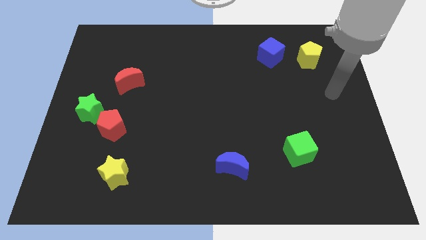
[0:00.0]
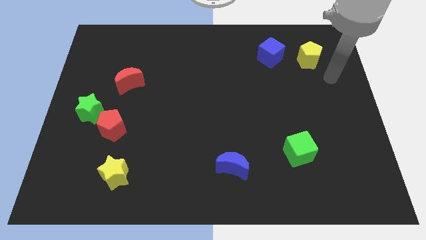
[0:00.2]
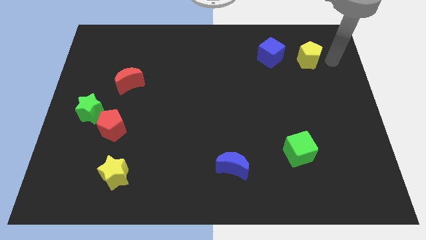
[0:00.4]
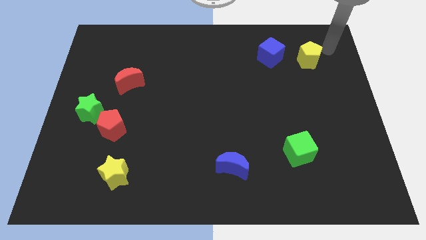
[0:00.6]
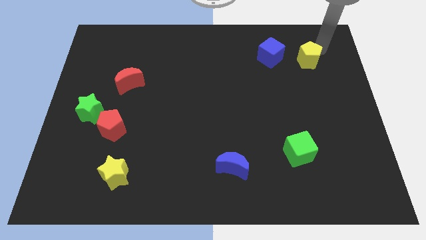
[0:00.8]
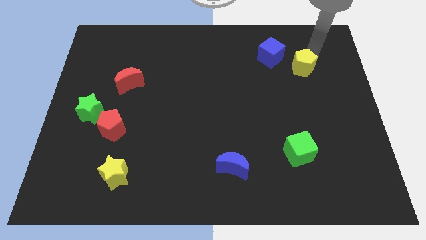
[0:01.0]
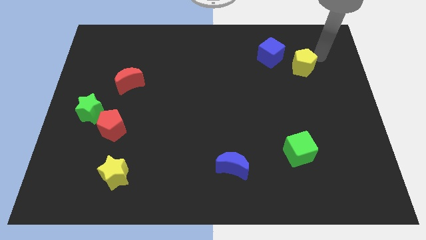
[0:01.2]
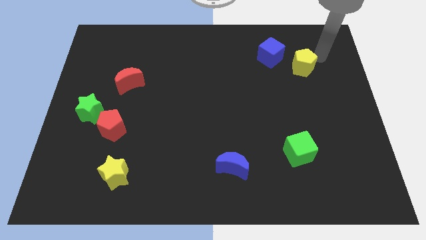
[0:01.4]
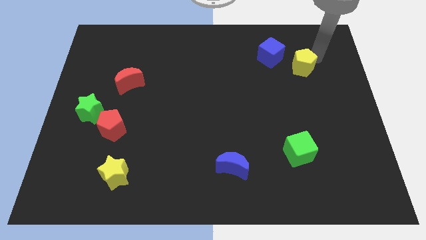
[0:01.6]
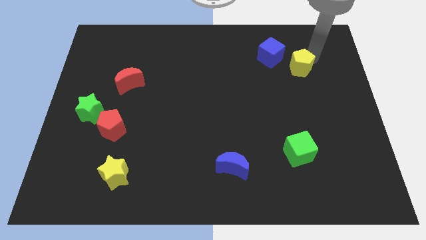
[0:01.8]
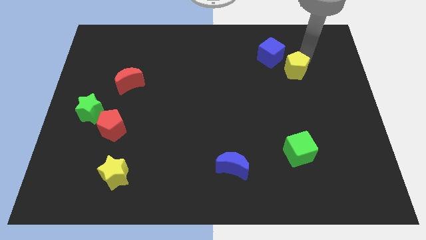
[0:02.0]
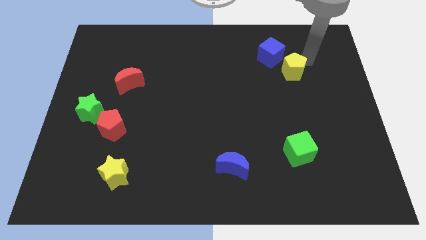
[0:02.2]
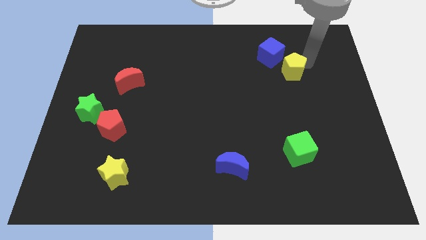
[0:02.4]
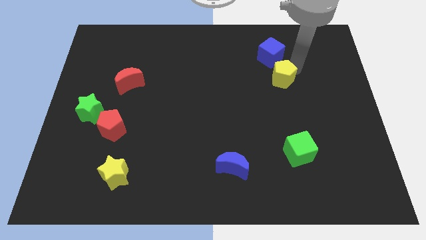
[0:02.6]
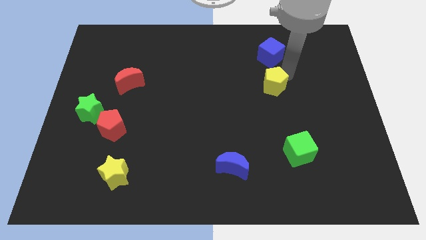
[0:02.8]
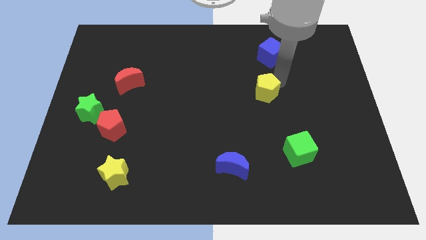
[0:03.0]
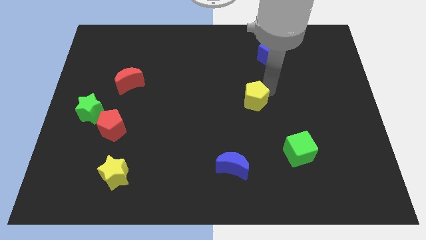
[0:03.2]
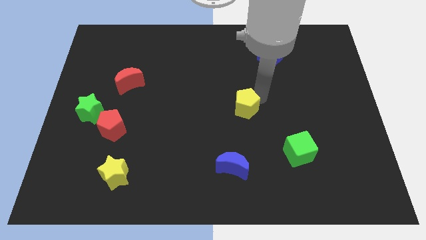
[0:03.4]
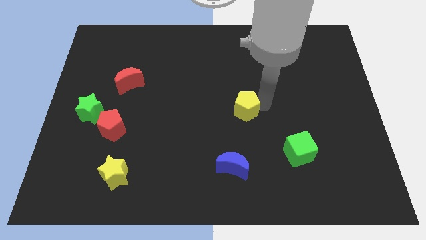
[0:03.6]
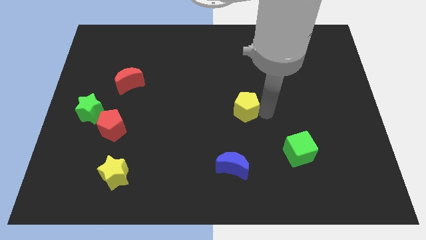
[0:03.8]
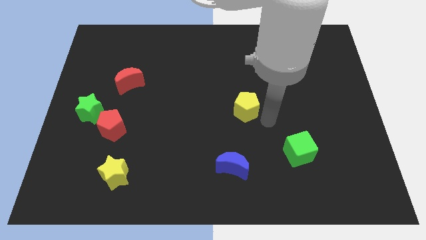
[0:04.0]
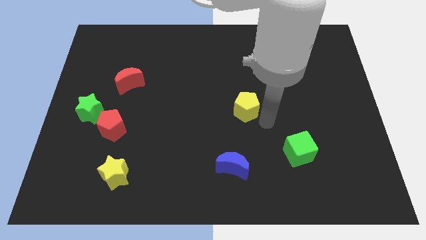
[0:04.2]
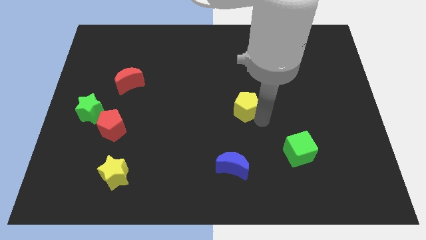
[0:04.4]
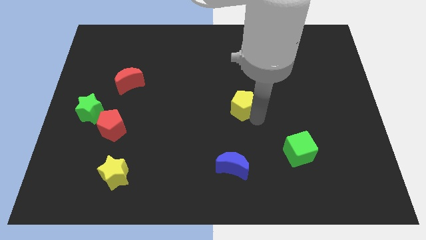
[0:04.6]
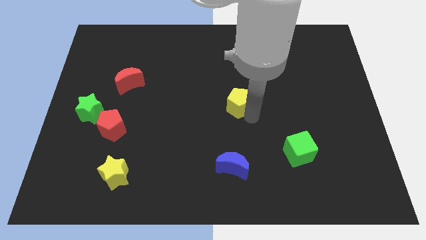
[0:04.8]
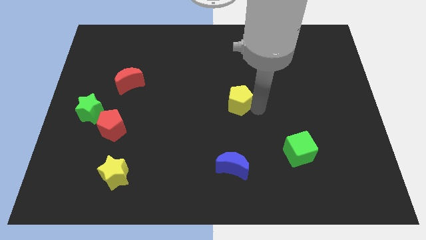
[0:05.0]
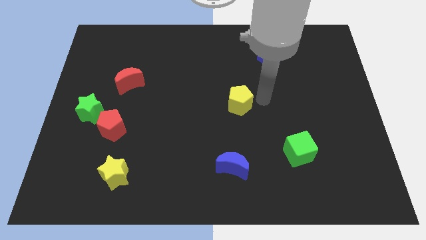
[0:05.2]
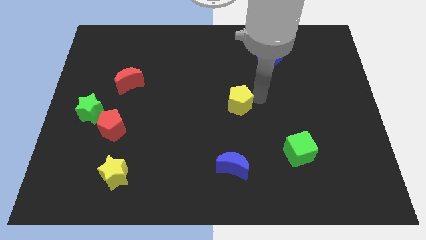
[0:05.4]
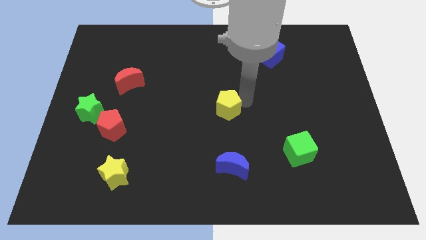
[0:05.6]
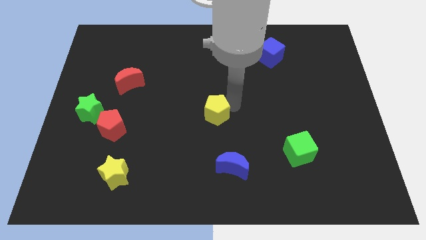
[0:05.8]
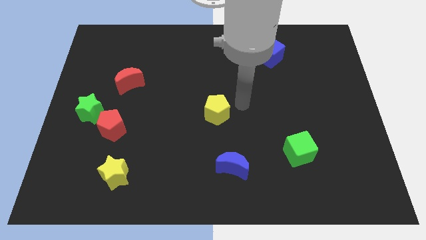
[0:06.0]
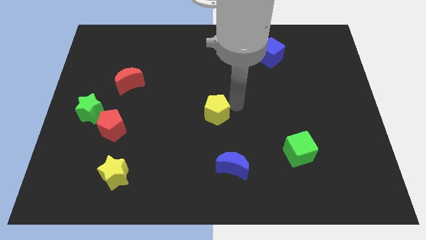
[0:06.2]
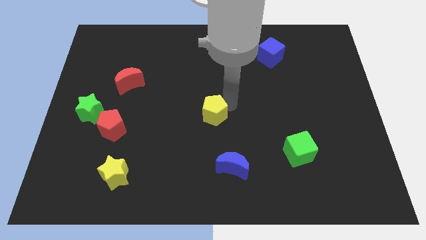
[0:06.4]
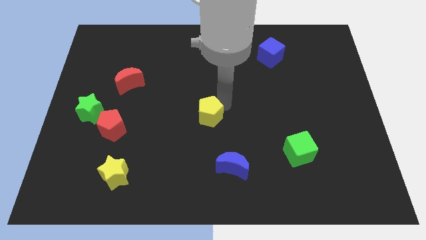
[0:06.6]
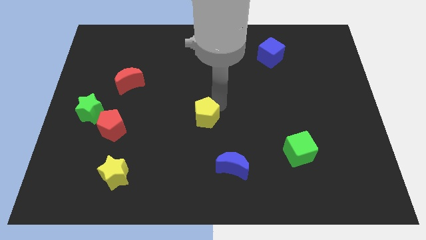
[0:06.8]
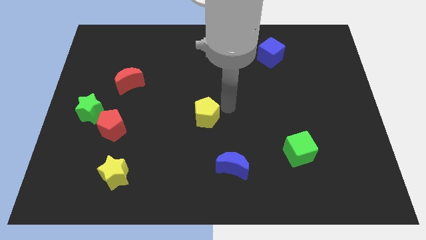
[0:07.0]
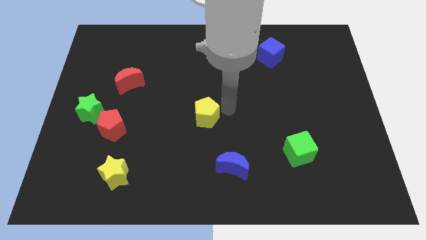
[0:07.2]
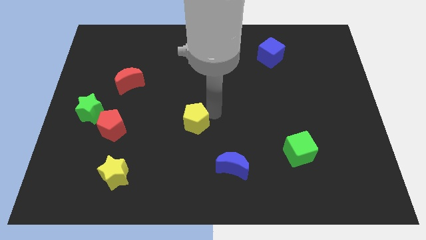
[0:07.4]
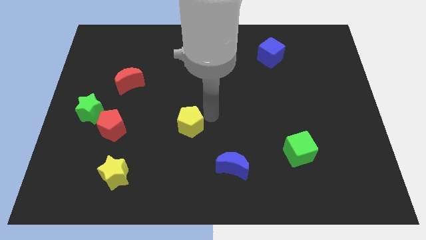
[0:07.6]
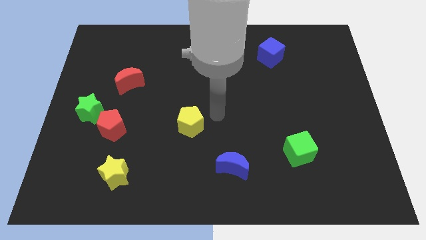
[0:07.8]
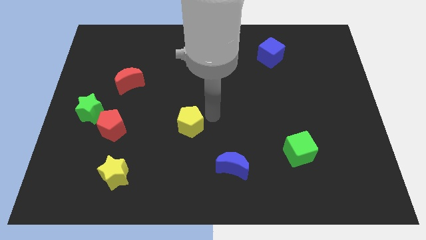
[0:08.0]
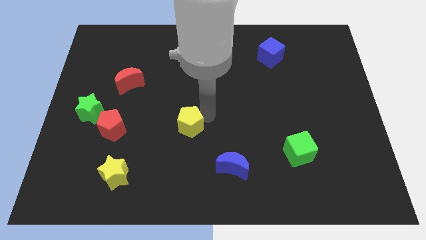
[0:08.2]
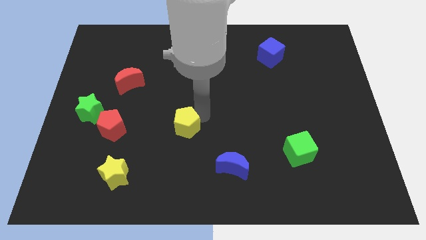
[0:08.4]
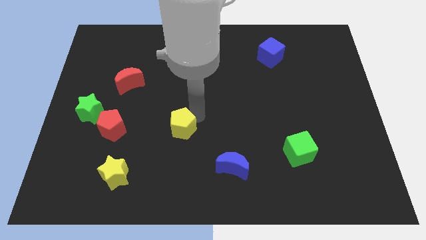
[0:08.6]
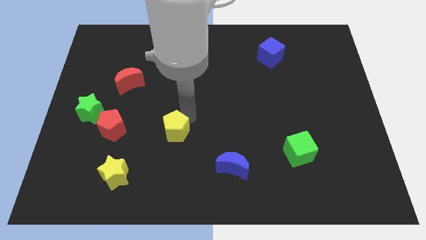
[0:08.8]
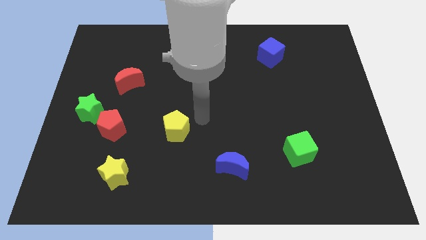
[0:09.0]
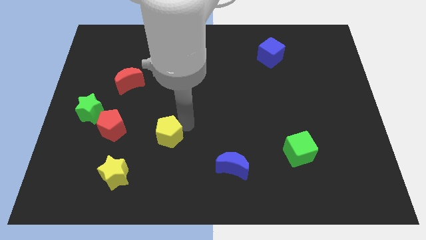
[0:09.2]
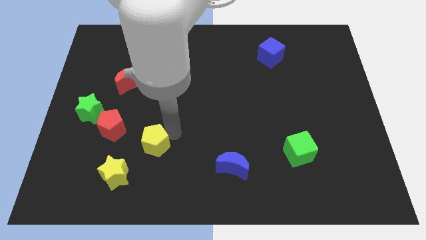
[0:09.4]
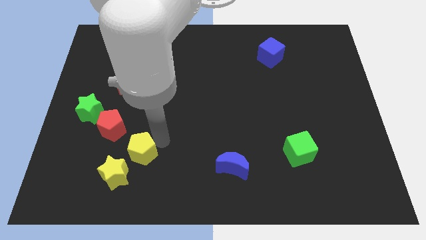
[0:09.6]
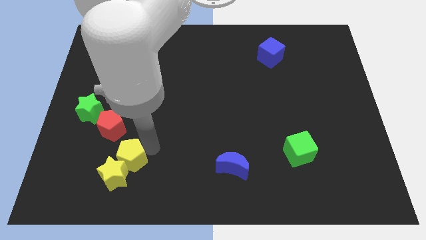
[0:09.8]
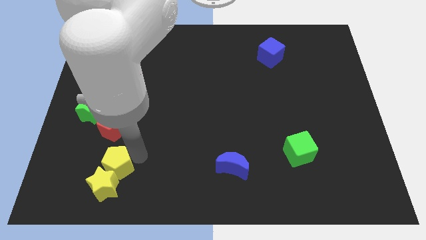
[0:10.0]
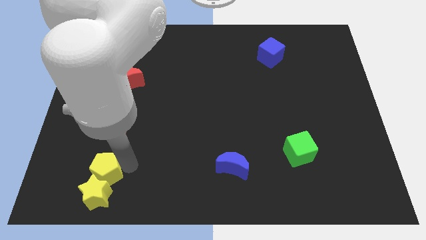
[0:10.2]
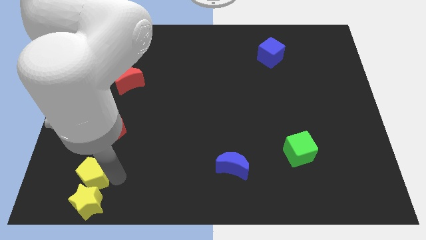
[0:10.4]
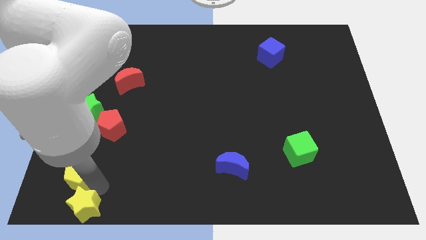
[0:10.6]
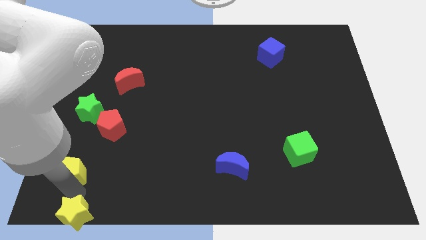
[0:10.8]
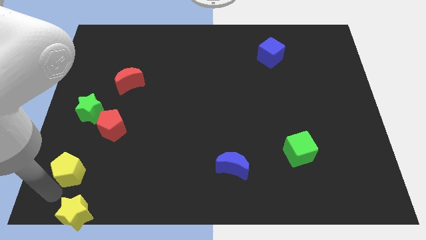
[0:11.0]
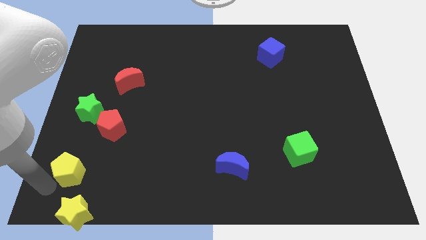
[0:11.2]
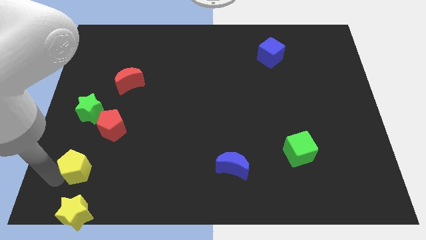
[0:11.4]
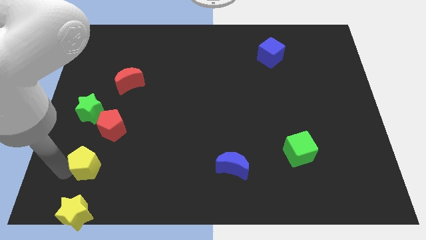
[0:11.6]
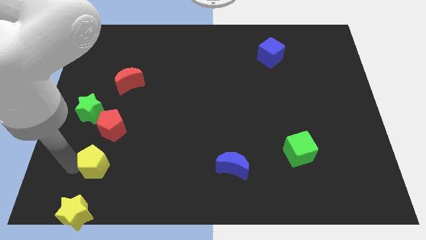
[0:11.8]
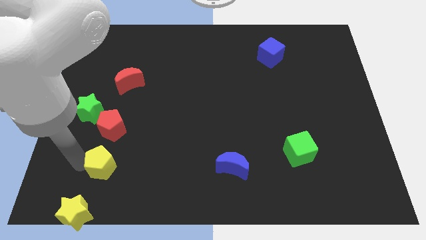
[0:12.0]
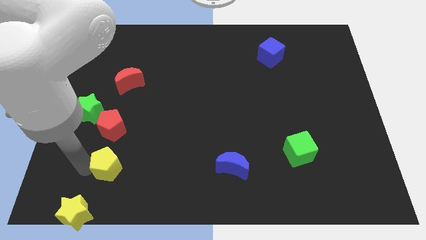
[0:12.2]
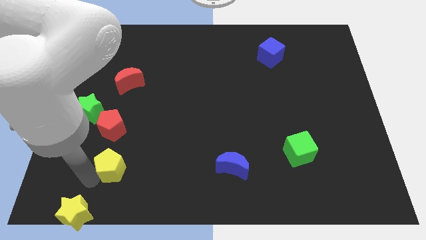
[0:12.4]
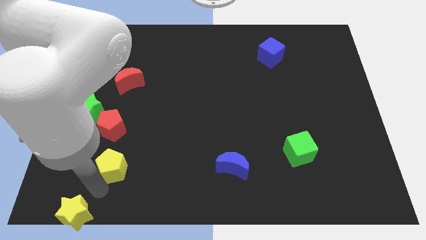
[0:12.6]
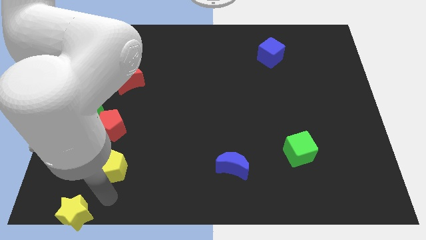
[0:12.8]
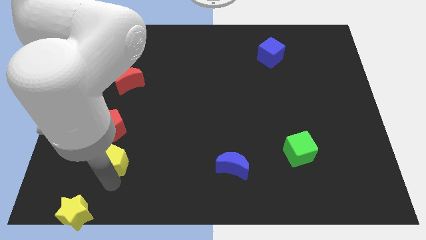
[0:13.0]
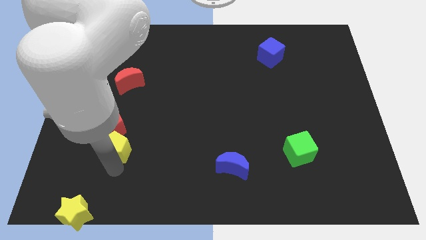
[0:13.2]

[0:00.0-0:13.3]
slide the yellow pentagon to the bottom right of the green star
